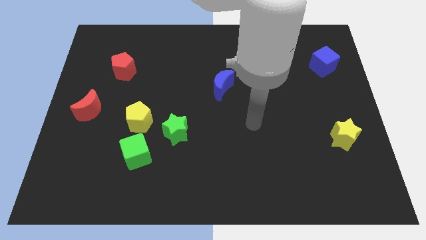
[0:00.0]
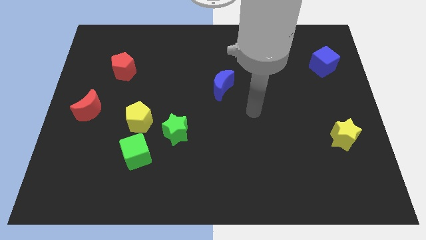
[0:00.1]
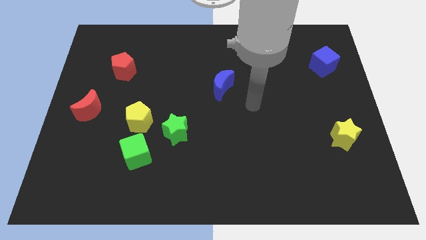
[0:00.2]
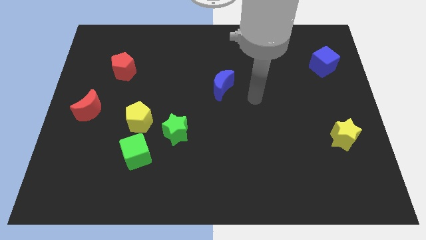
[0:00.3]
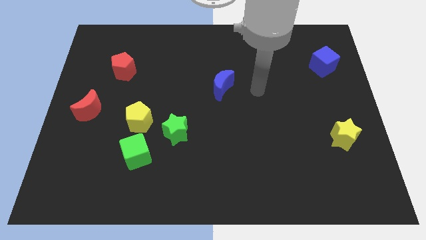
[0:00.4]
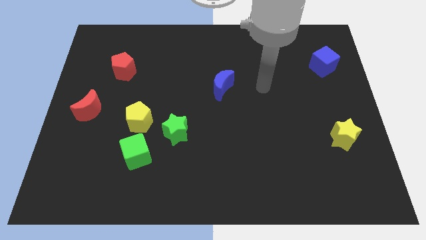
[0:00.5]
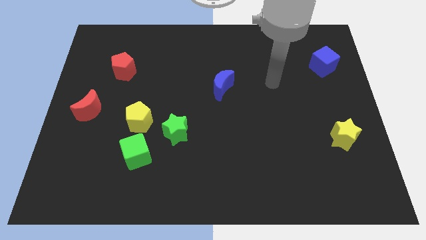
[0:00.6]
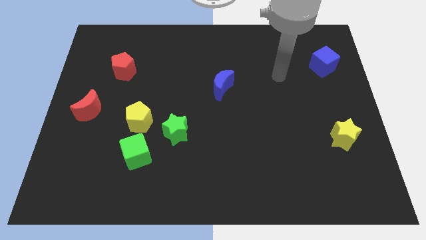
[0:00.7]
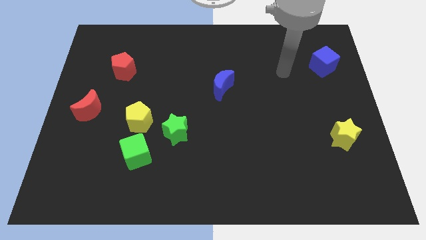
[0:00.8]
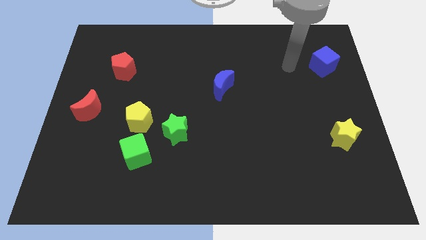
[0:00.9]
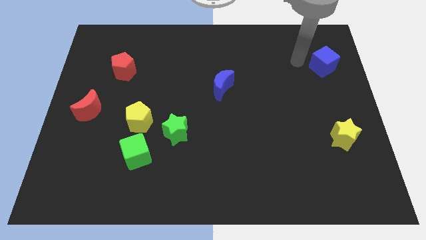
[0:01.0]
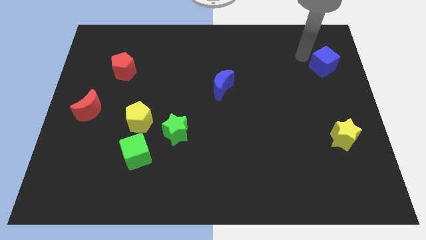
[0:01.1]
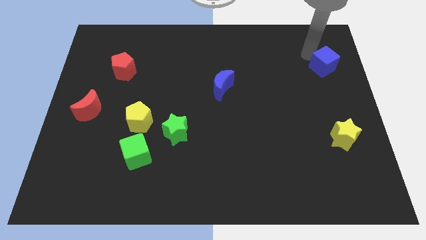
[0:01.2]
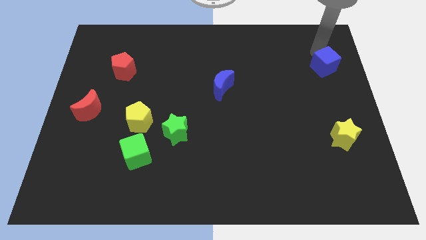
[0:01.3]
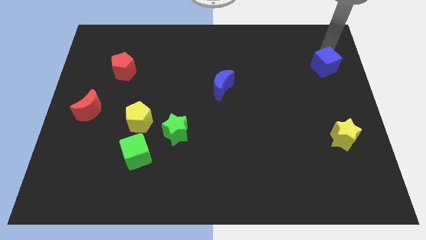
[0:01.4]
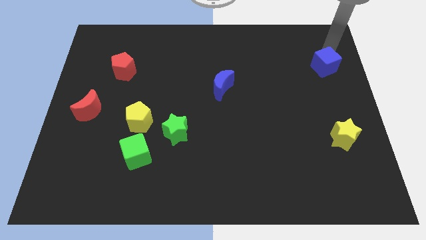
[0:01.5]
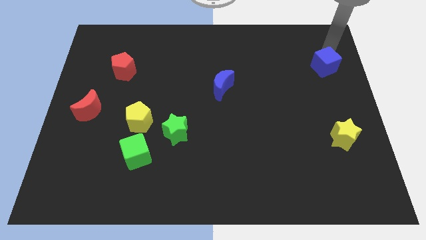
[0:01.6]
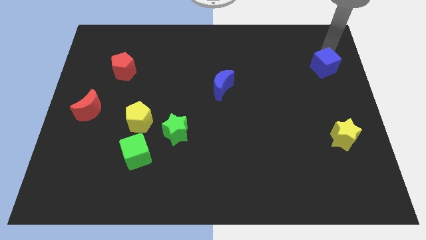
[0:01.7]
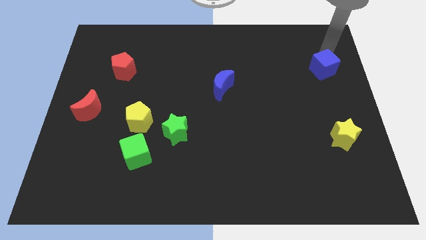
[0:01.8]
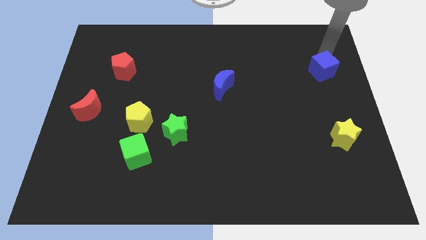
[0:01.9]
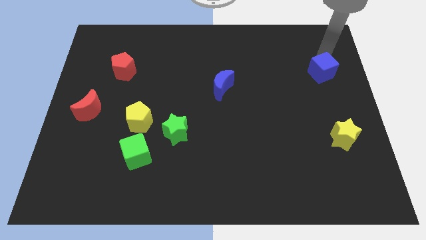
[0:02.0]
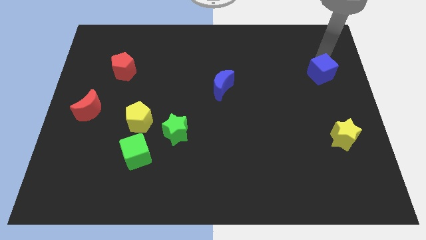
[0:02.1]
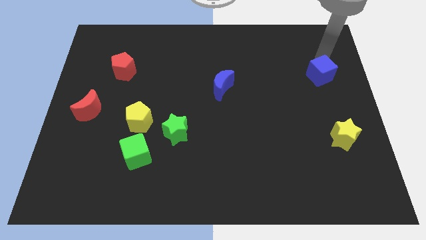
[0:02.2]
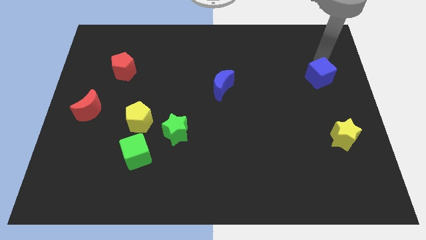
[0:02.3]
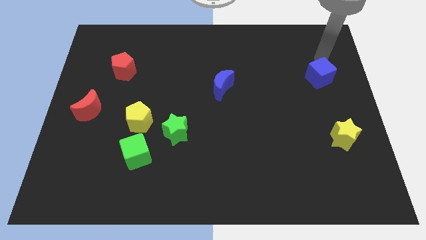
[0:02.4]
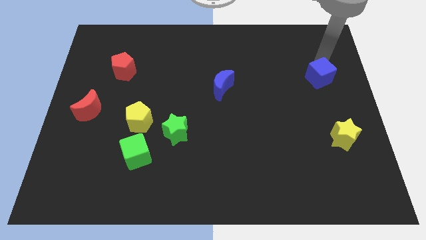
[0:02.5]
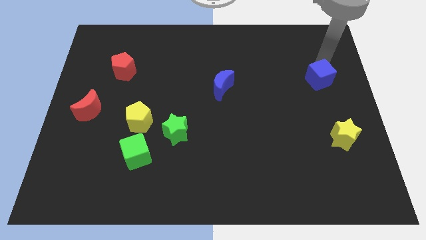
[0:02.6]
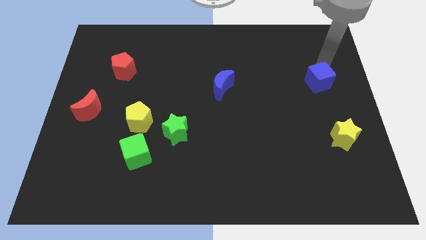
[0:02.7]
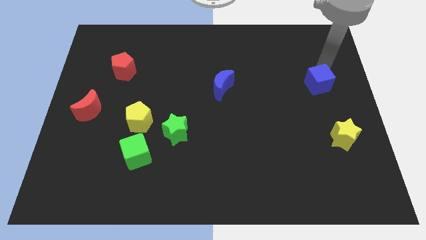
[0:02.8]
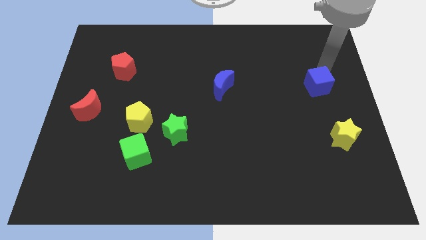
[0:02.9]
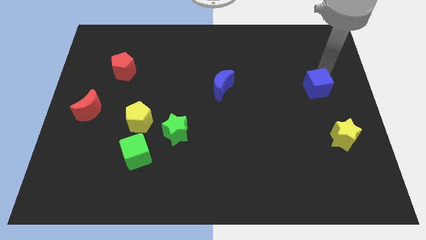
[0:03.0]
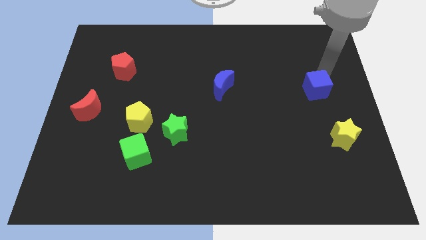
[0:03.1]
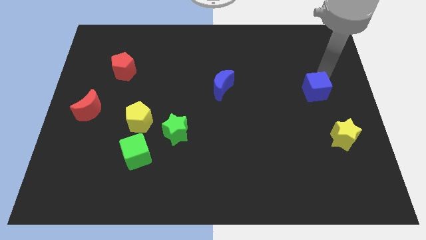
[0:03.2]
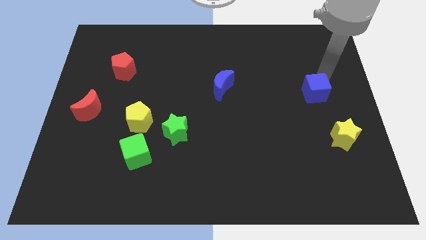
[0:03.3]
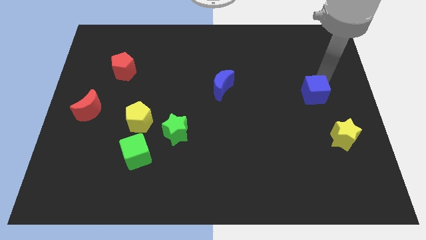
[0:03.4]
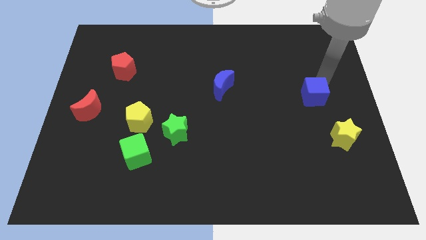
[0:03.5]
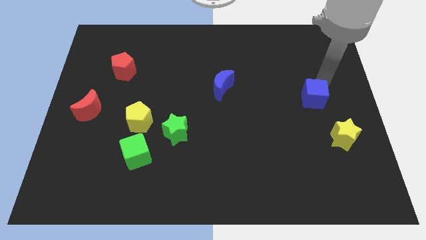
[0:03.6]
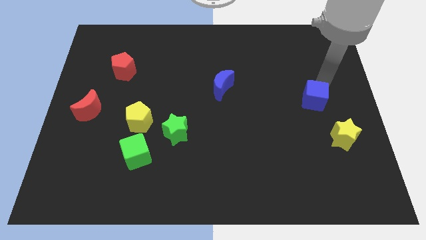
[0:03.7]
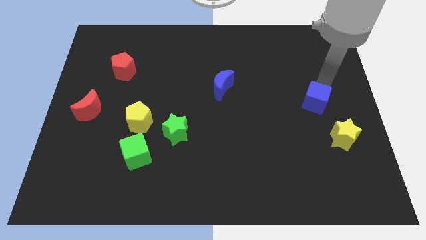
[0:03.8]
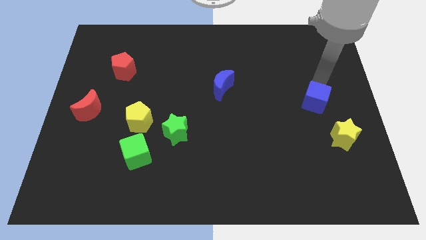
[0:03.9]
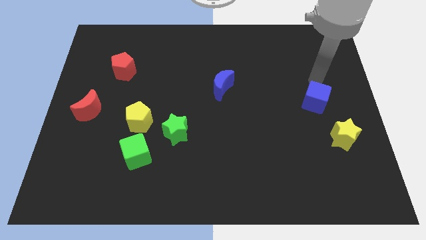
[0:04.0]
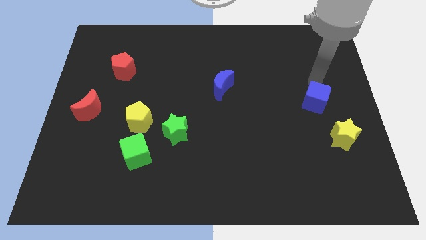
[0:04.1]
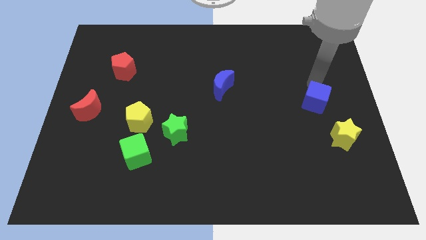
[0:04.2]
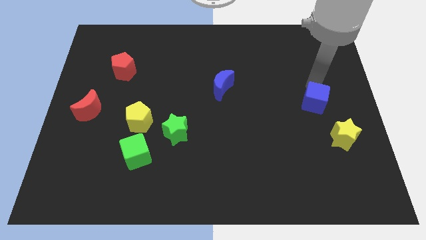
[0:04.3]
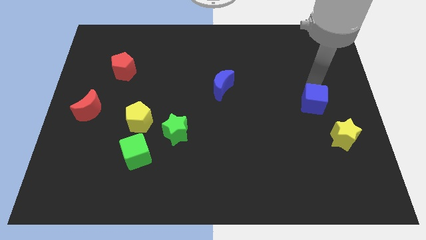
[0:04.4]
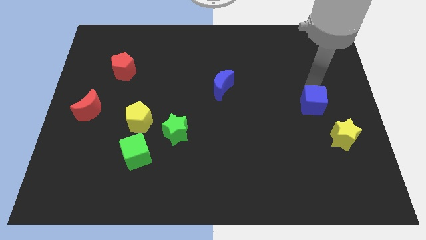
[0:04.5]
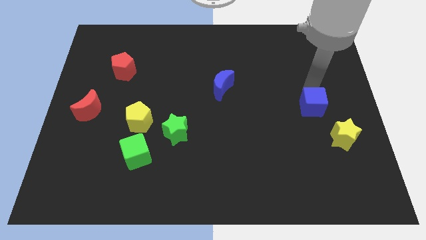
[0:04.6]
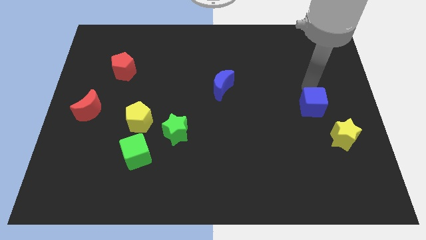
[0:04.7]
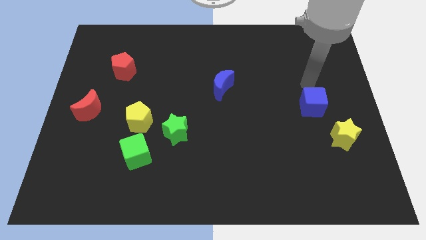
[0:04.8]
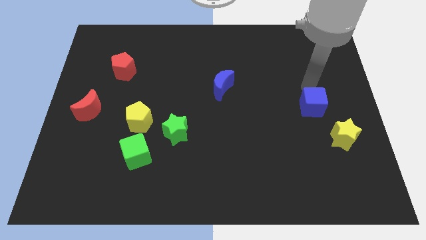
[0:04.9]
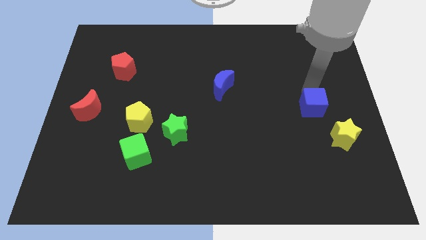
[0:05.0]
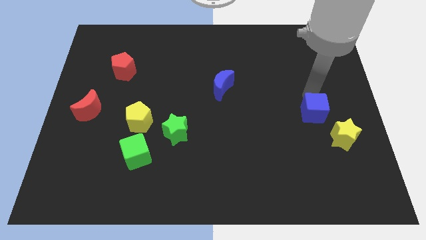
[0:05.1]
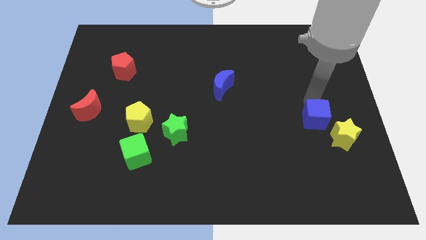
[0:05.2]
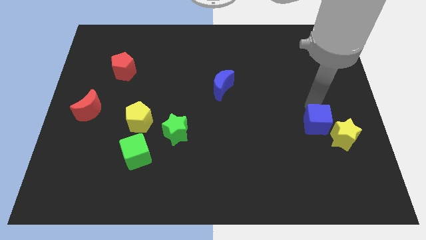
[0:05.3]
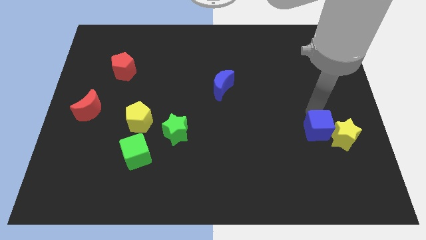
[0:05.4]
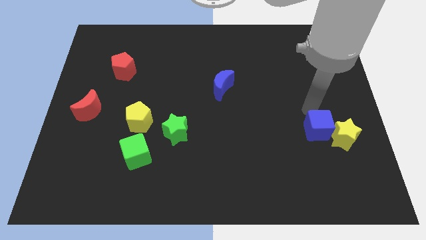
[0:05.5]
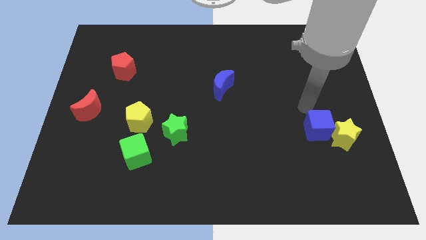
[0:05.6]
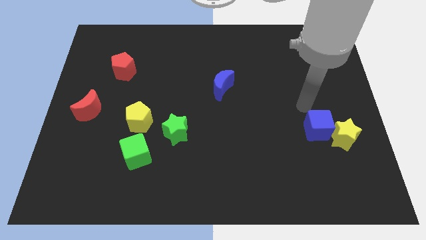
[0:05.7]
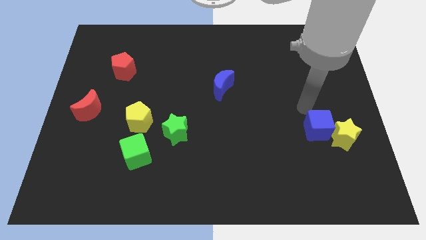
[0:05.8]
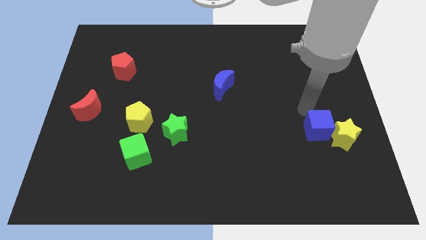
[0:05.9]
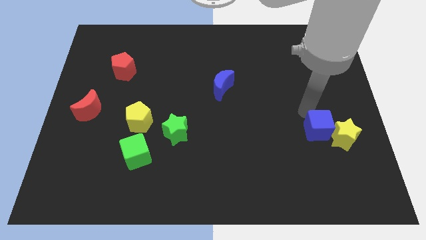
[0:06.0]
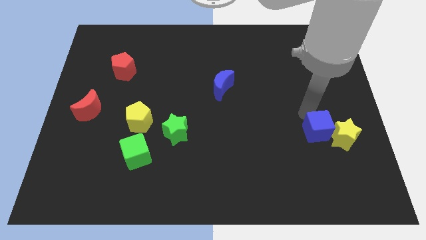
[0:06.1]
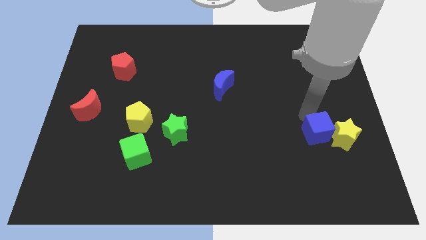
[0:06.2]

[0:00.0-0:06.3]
push the blue cube downwards

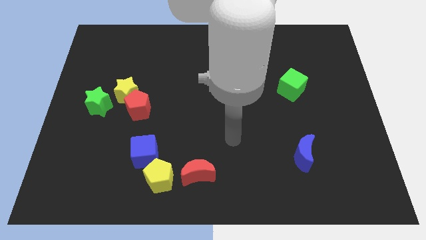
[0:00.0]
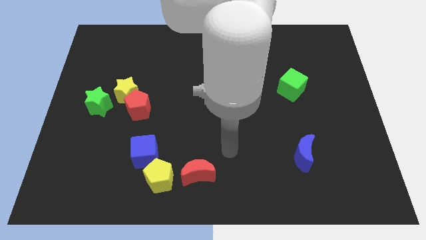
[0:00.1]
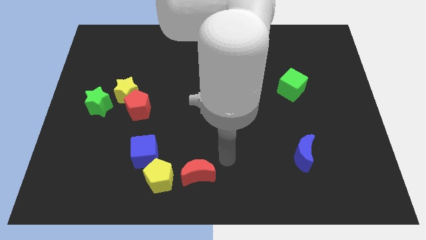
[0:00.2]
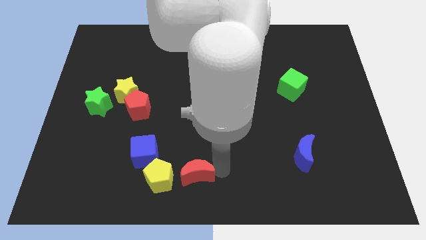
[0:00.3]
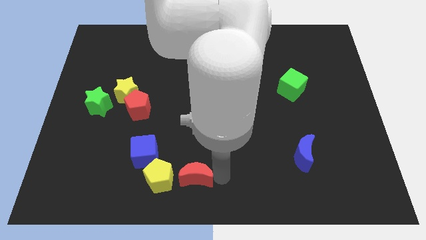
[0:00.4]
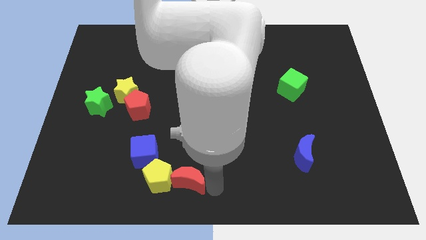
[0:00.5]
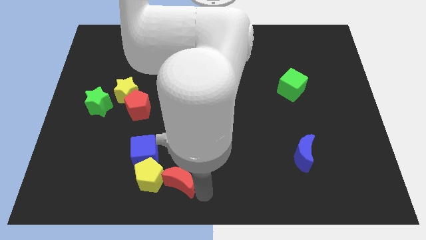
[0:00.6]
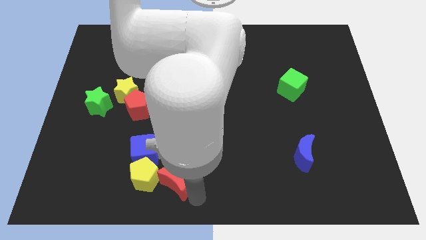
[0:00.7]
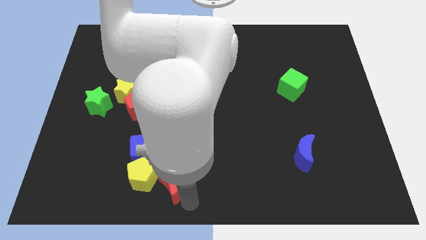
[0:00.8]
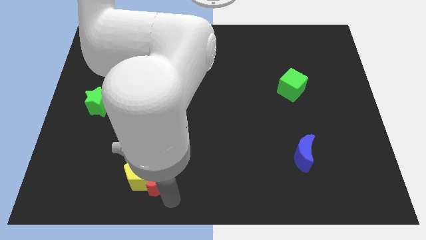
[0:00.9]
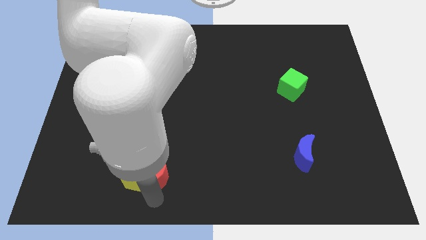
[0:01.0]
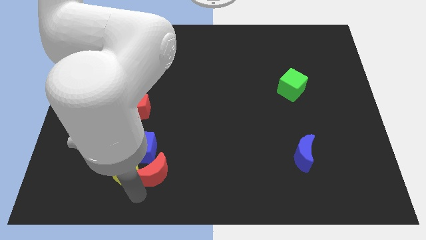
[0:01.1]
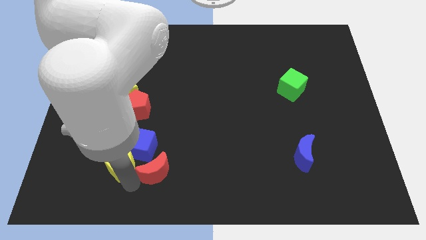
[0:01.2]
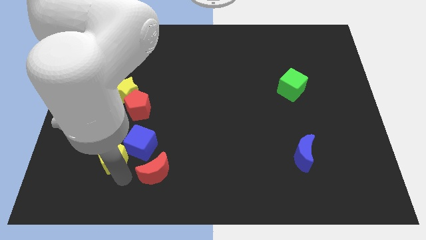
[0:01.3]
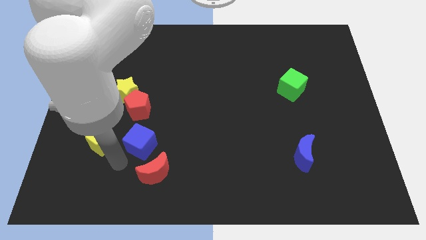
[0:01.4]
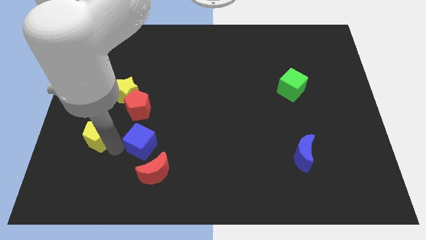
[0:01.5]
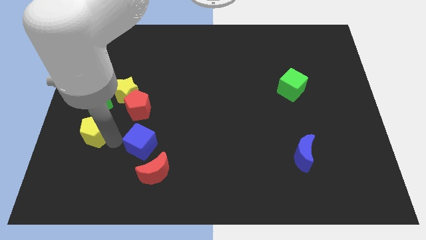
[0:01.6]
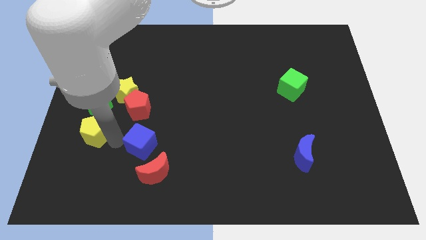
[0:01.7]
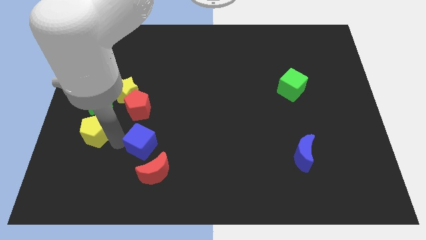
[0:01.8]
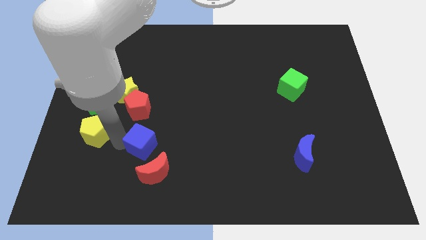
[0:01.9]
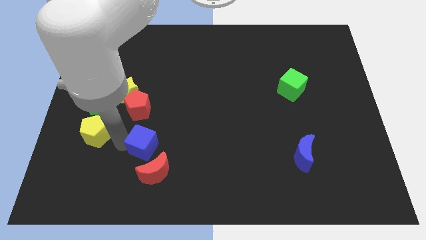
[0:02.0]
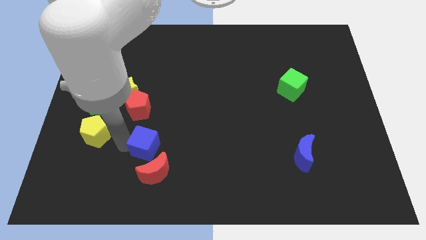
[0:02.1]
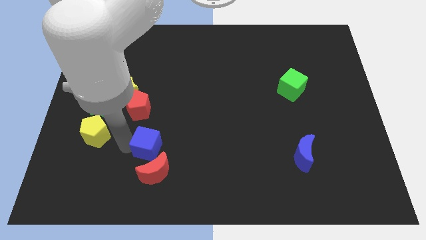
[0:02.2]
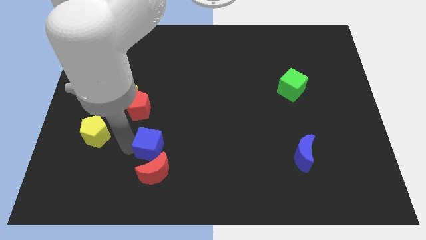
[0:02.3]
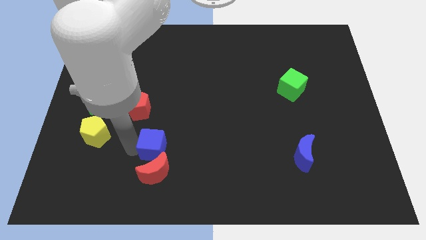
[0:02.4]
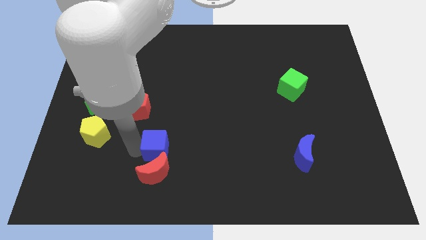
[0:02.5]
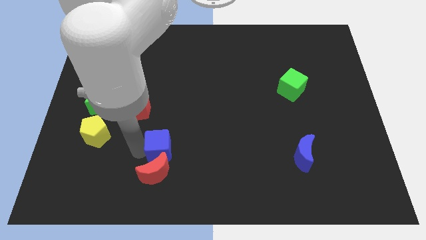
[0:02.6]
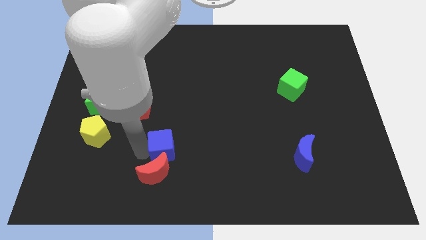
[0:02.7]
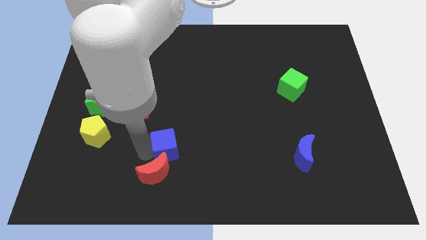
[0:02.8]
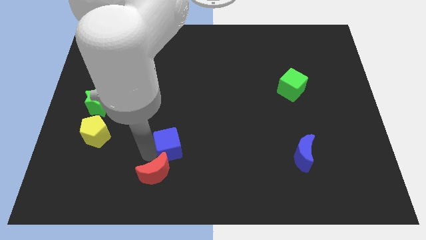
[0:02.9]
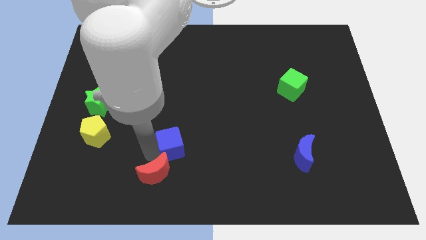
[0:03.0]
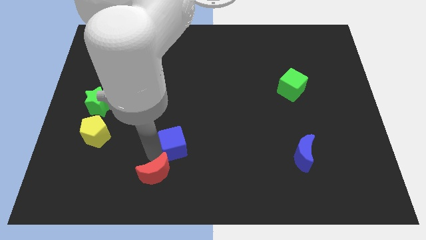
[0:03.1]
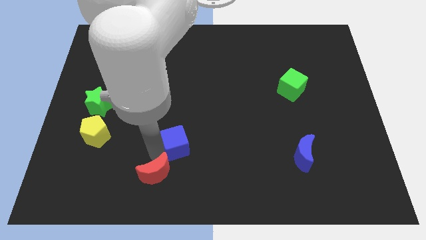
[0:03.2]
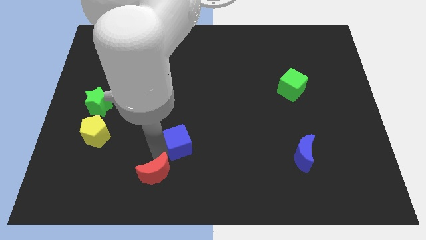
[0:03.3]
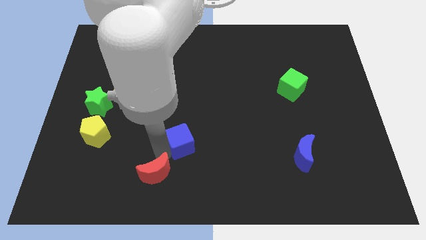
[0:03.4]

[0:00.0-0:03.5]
slightly push the blue cube diagonally up and to the right
